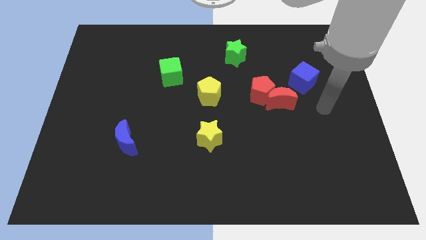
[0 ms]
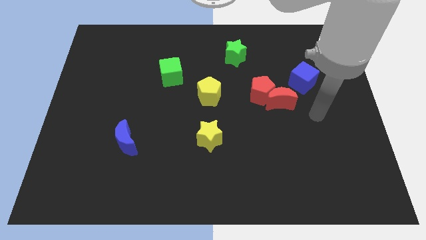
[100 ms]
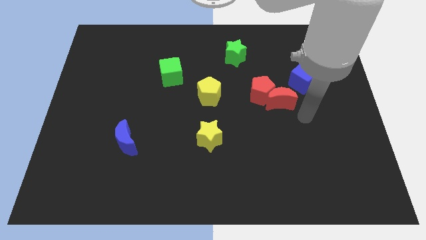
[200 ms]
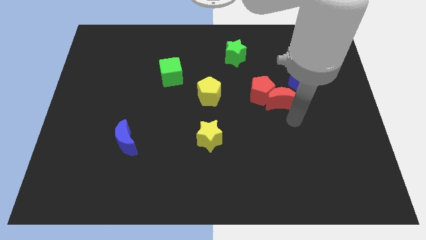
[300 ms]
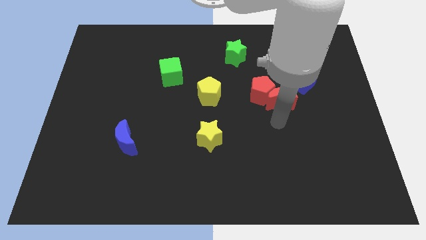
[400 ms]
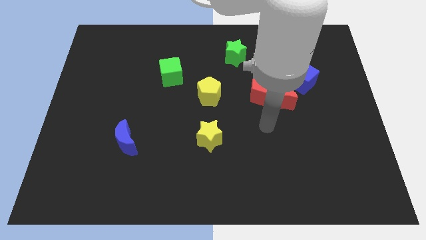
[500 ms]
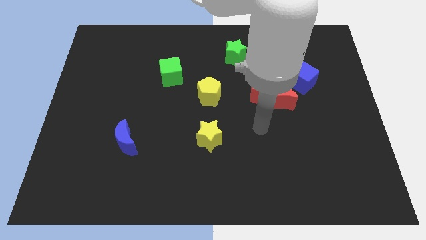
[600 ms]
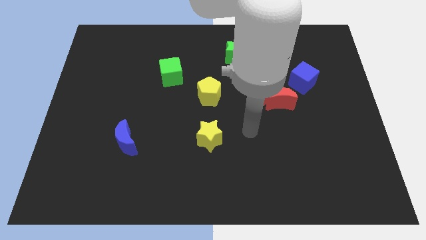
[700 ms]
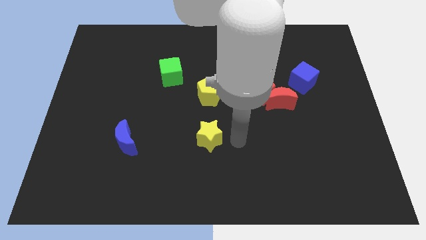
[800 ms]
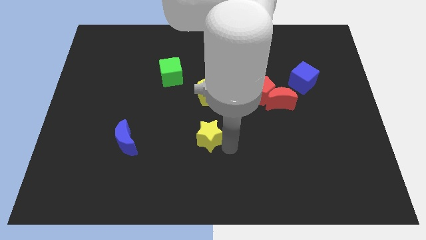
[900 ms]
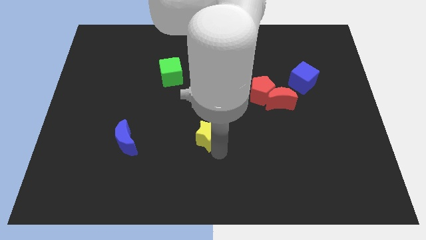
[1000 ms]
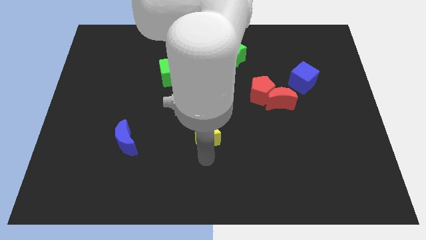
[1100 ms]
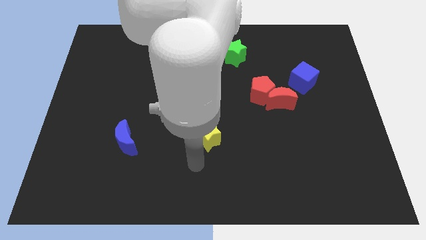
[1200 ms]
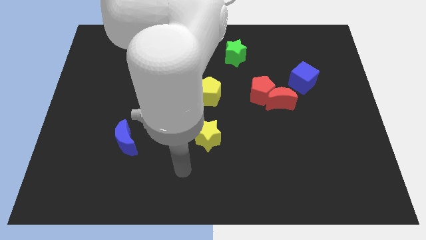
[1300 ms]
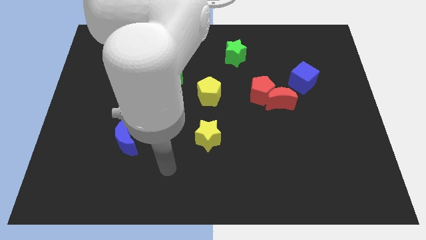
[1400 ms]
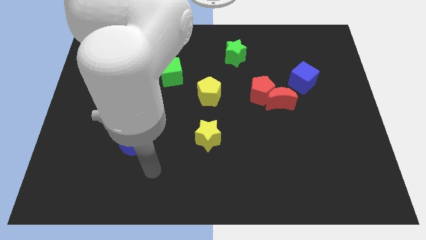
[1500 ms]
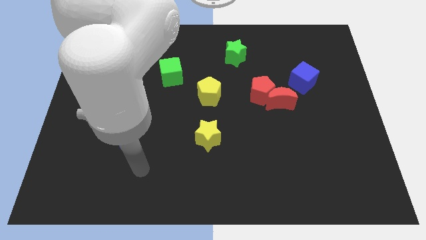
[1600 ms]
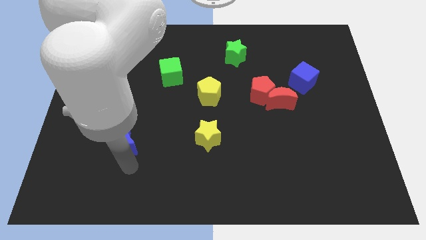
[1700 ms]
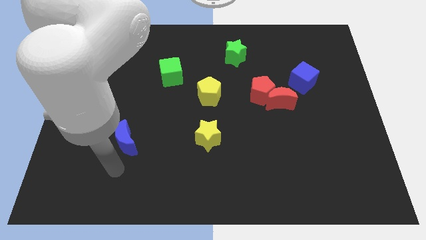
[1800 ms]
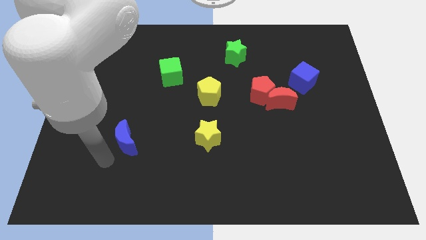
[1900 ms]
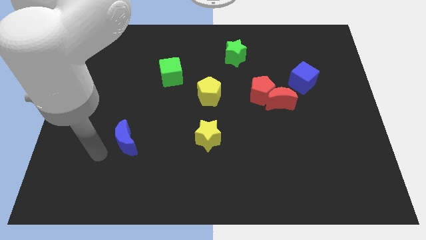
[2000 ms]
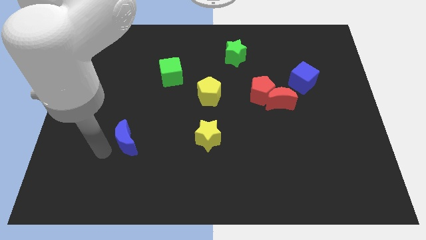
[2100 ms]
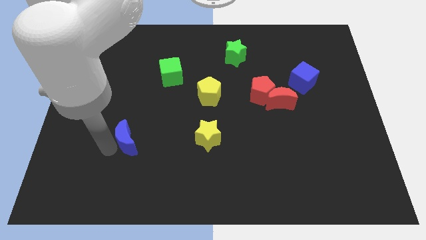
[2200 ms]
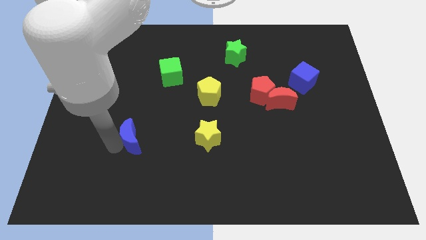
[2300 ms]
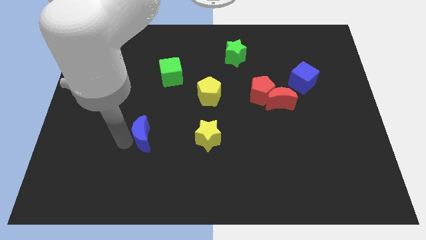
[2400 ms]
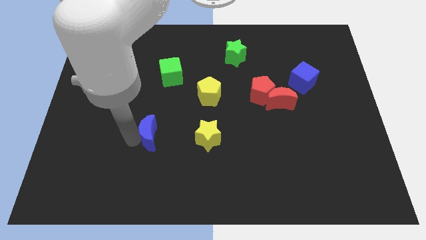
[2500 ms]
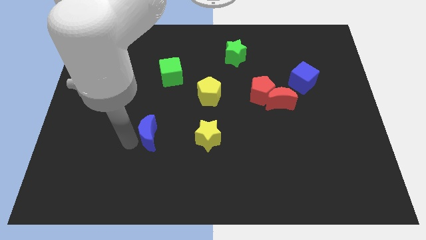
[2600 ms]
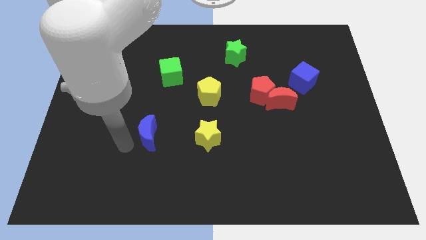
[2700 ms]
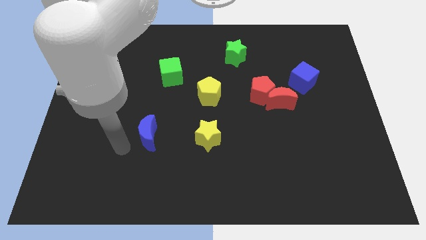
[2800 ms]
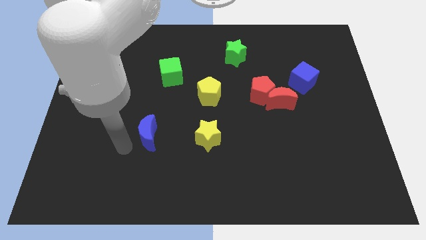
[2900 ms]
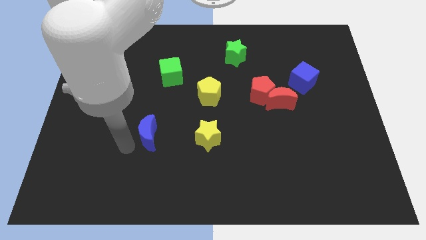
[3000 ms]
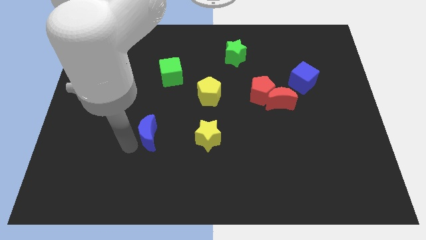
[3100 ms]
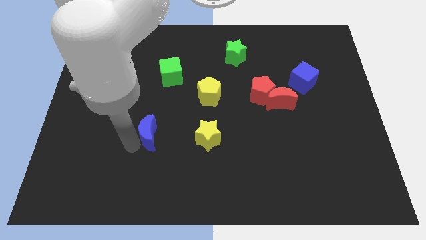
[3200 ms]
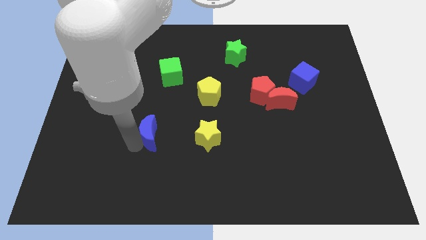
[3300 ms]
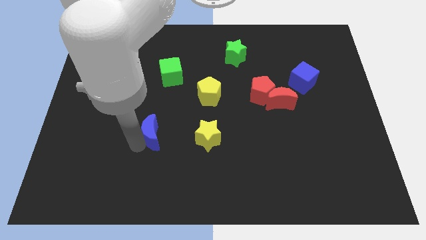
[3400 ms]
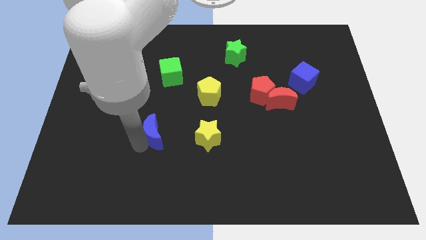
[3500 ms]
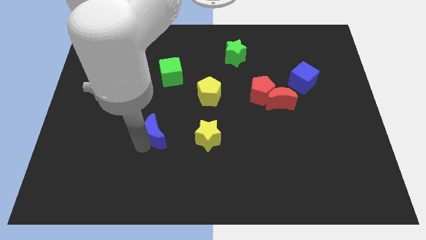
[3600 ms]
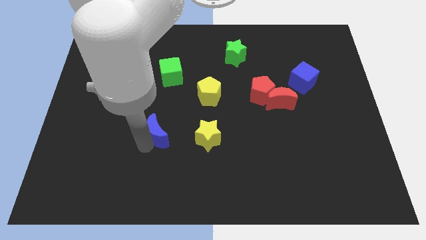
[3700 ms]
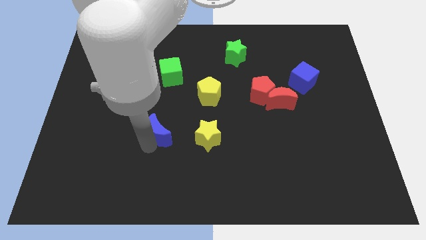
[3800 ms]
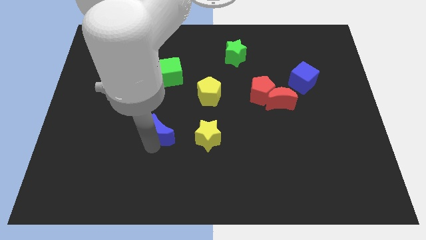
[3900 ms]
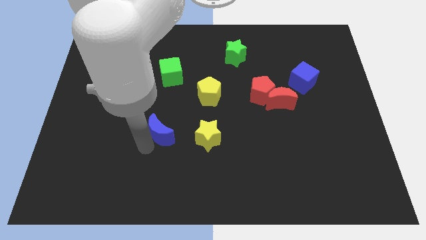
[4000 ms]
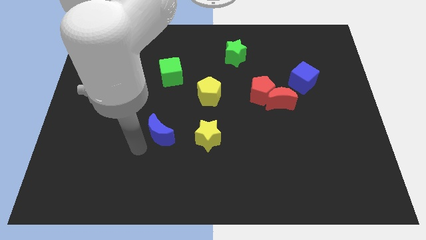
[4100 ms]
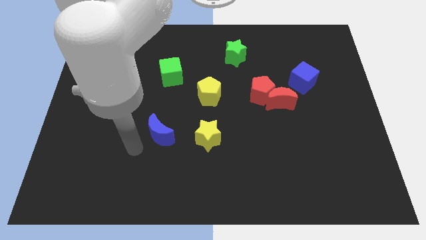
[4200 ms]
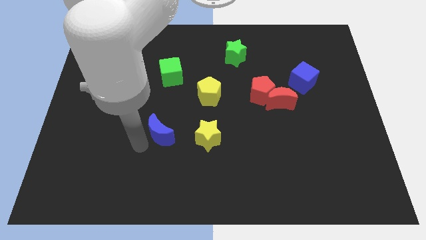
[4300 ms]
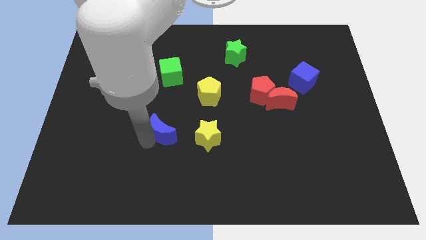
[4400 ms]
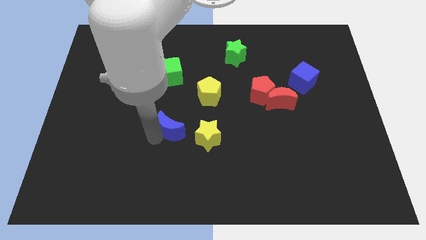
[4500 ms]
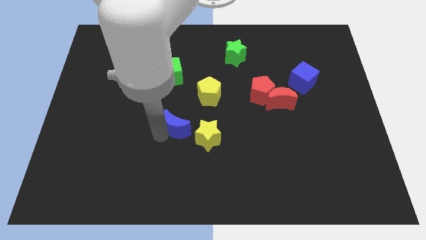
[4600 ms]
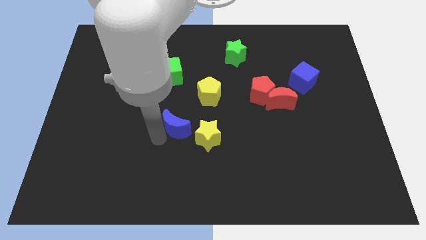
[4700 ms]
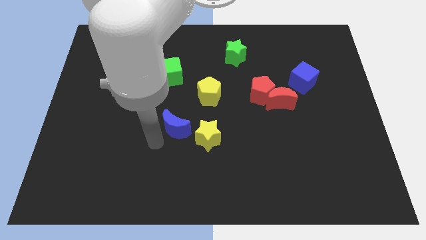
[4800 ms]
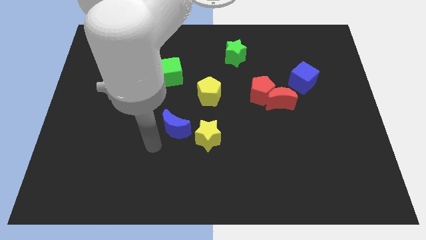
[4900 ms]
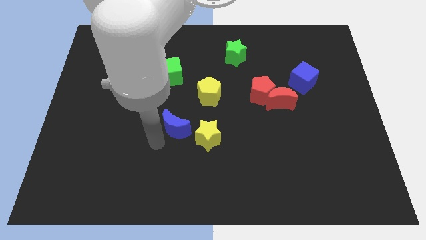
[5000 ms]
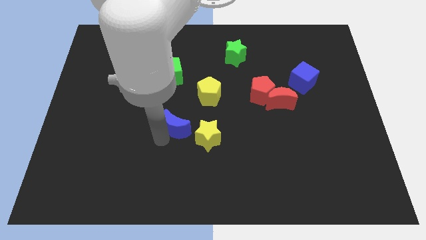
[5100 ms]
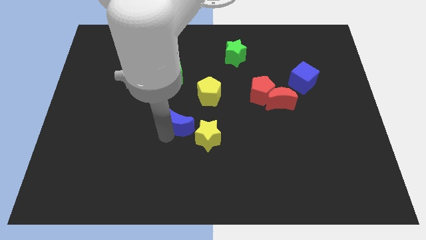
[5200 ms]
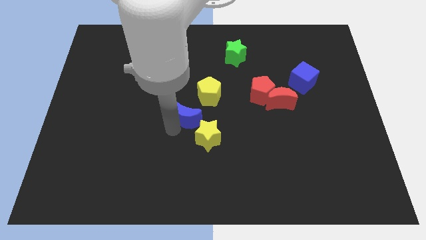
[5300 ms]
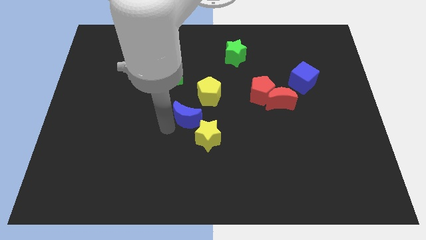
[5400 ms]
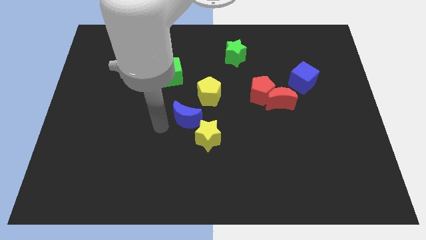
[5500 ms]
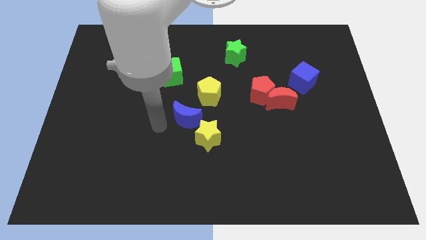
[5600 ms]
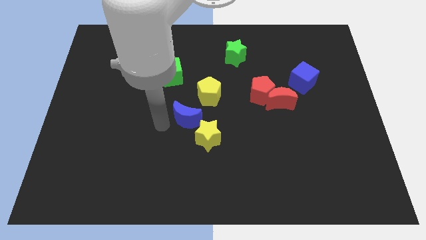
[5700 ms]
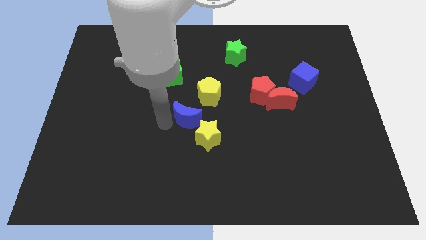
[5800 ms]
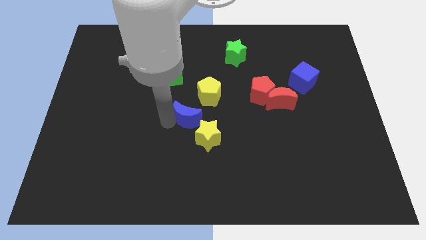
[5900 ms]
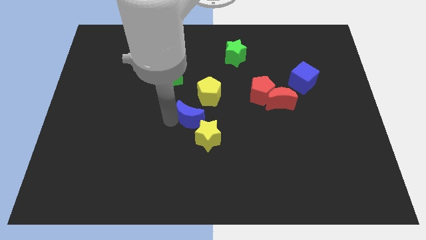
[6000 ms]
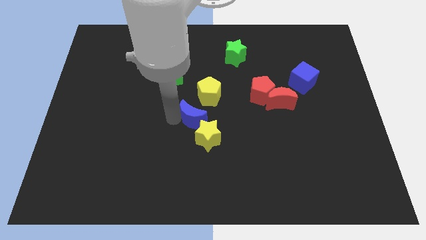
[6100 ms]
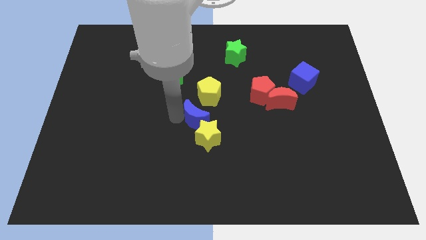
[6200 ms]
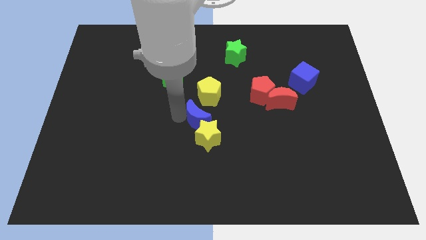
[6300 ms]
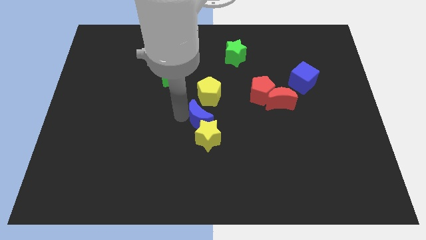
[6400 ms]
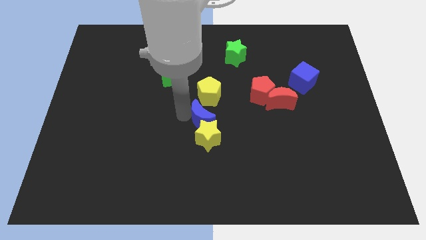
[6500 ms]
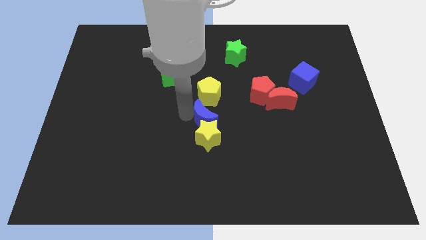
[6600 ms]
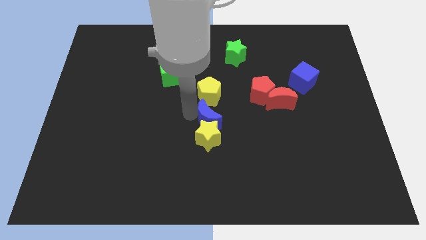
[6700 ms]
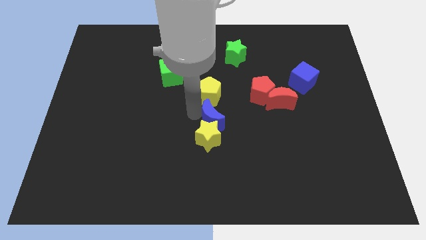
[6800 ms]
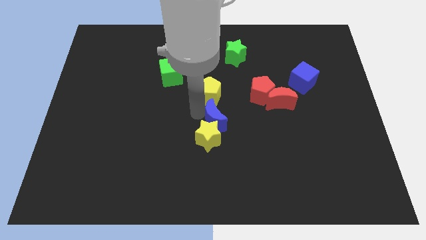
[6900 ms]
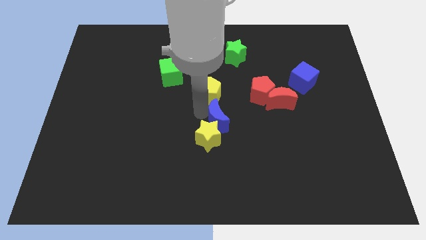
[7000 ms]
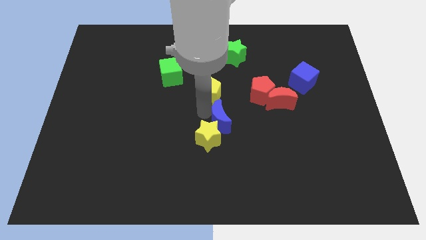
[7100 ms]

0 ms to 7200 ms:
push the blue moon to the bottom left side of the red pentagon
